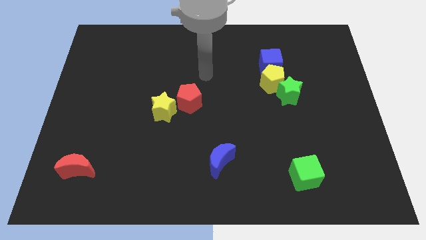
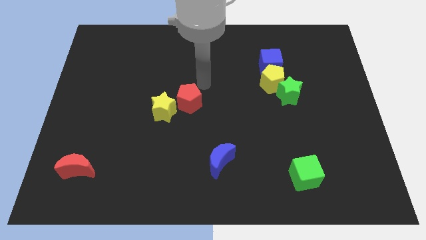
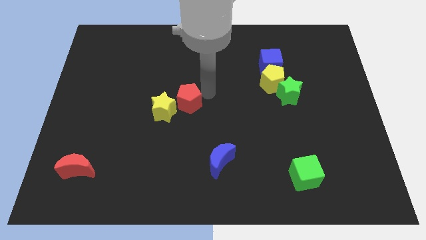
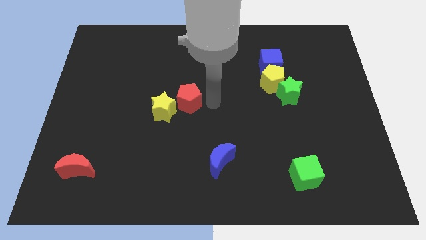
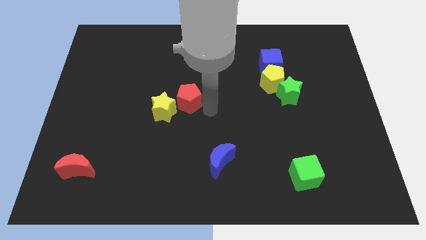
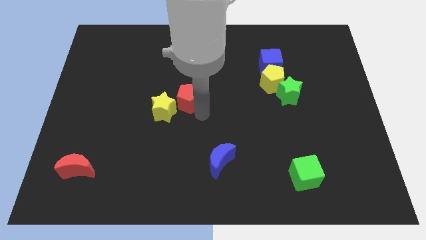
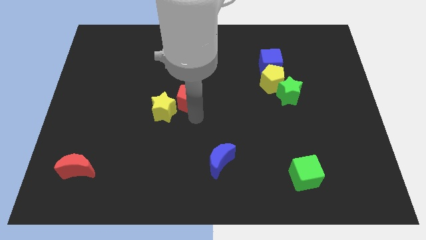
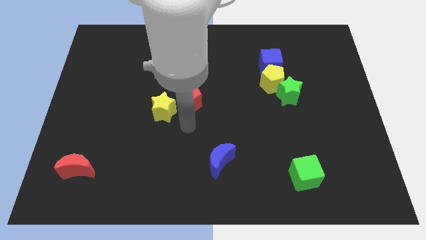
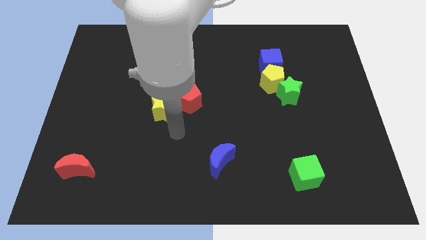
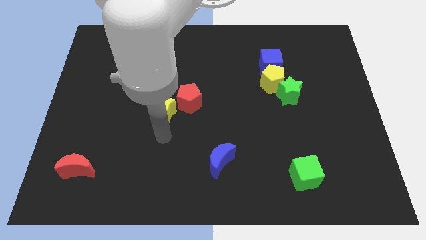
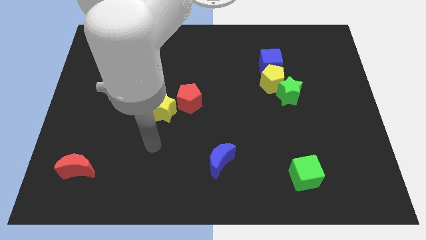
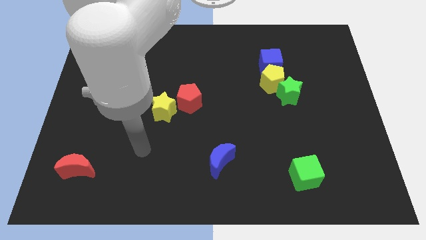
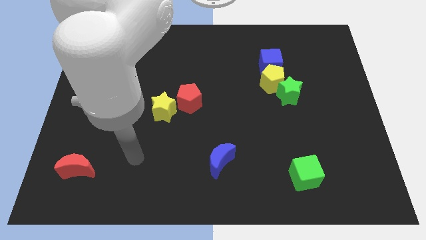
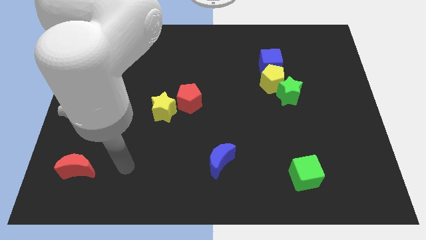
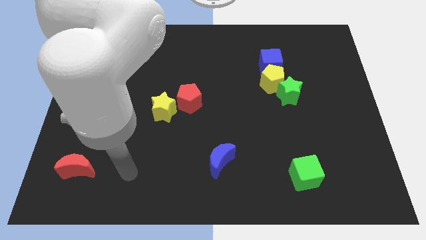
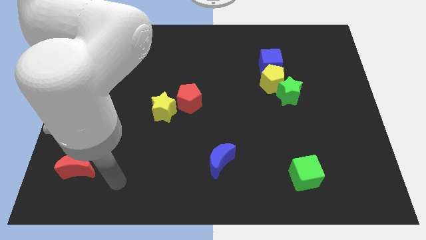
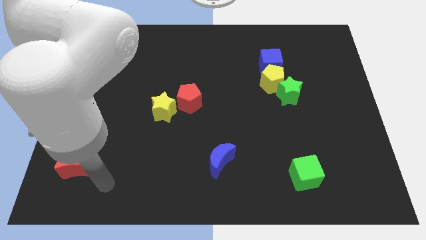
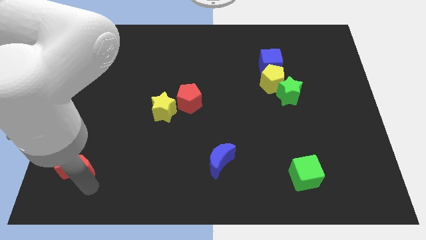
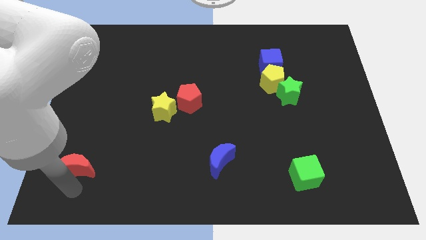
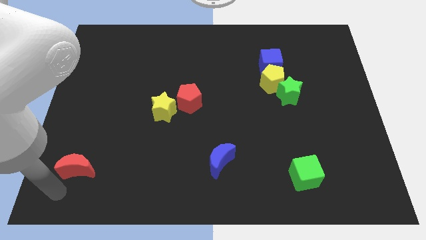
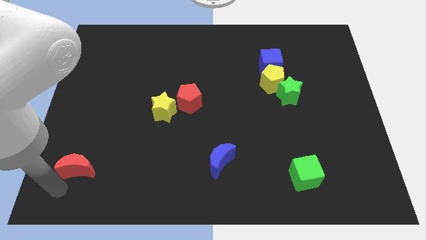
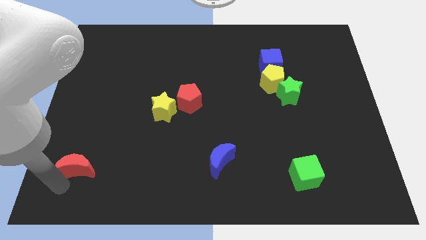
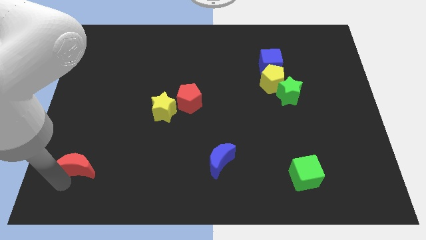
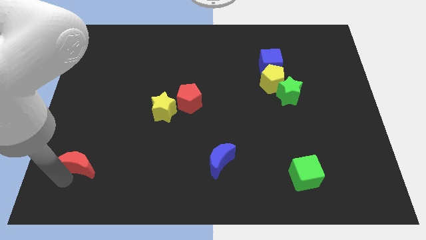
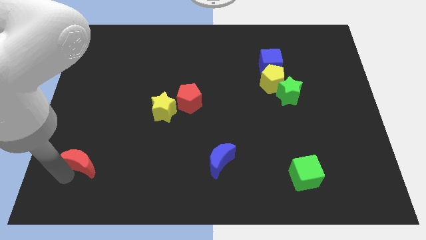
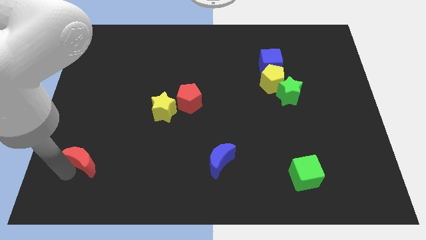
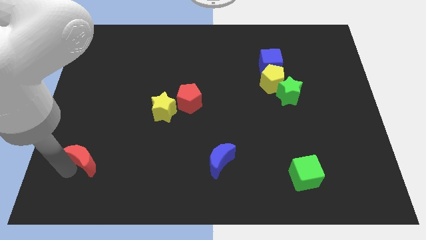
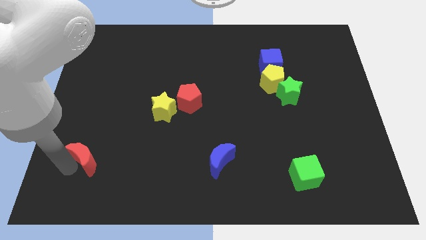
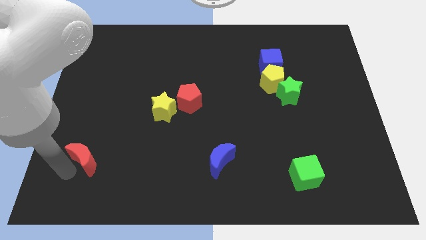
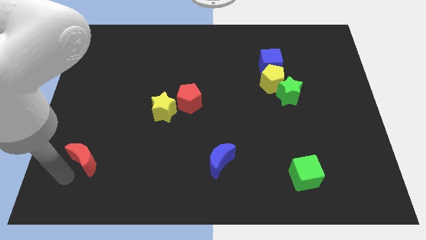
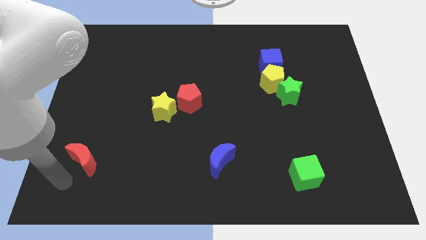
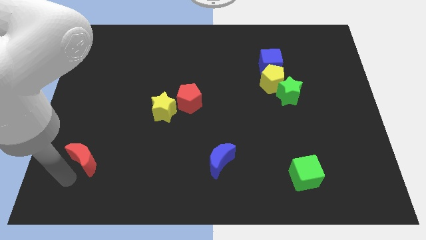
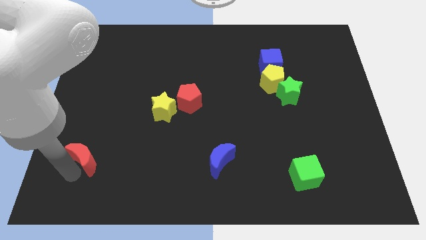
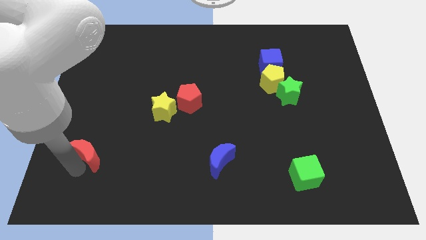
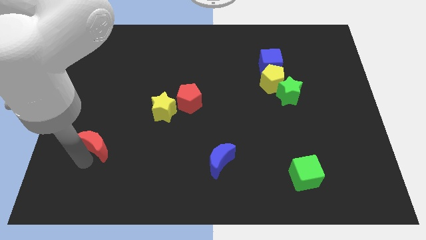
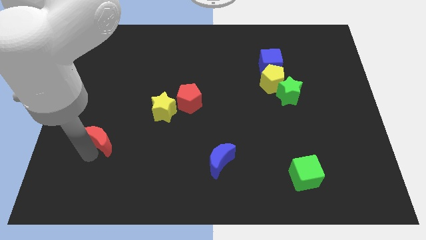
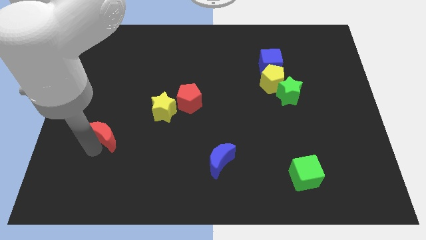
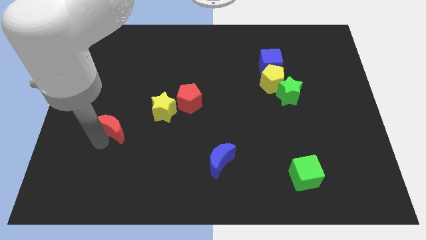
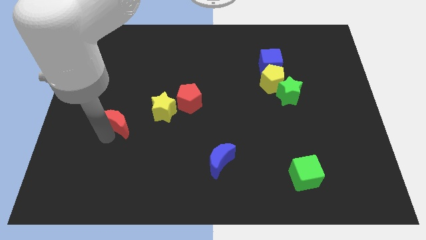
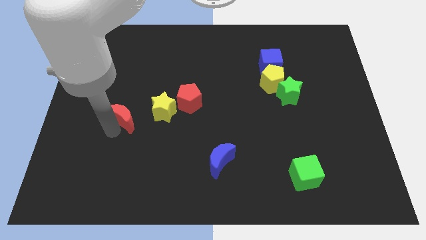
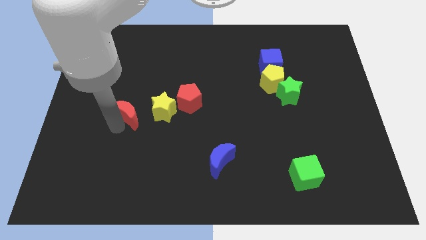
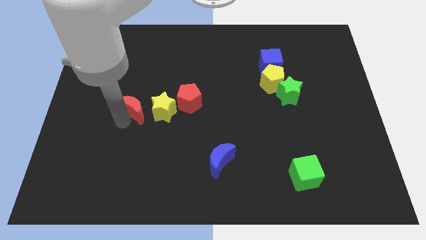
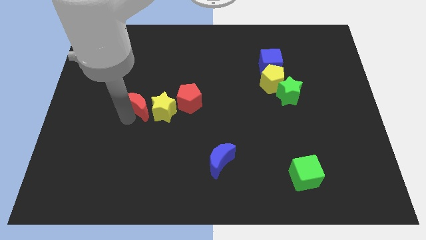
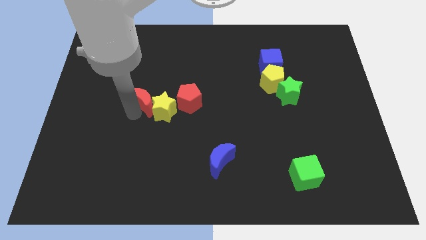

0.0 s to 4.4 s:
slide the red moon upwards and right diagonally

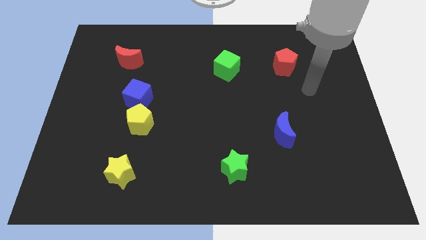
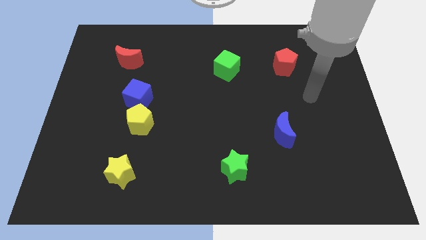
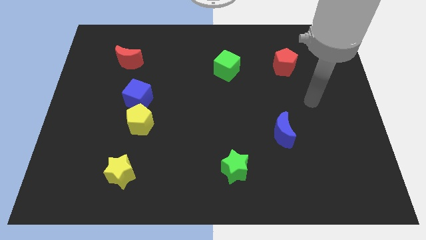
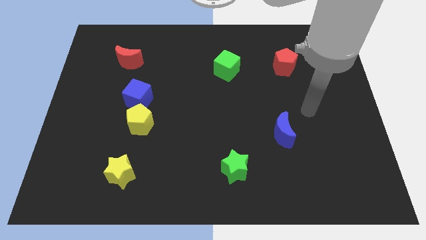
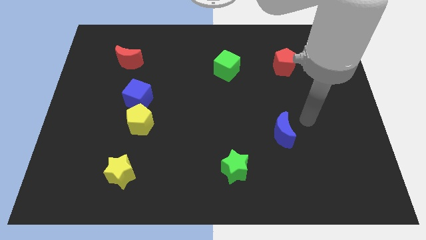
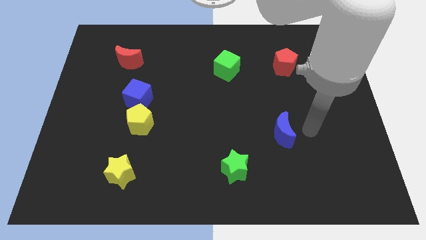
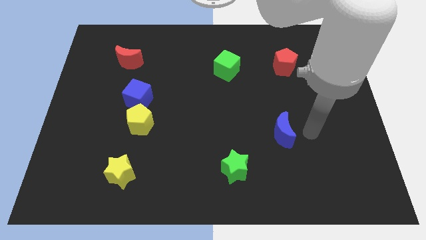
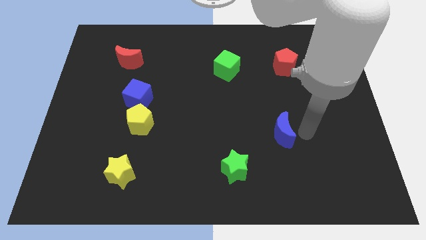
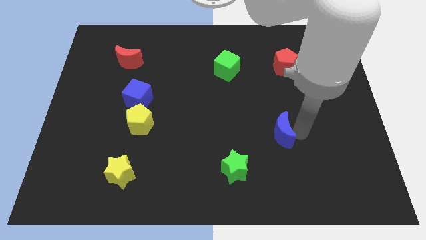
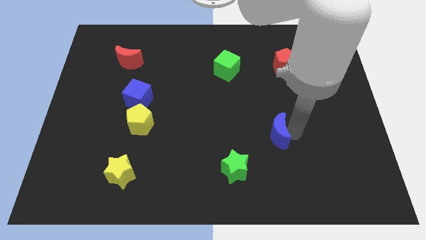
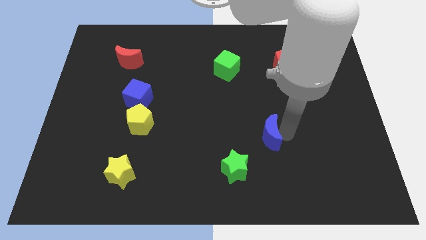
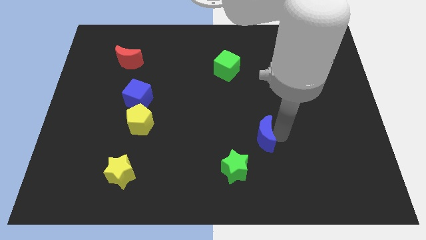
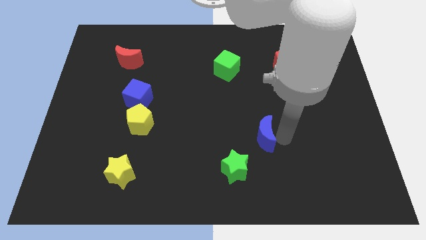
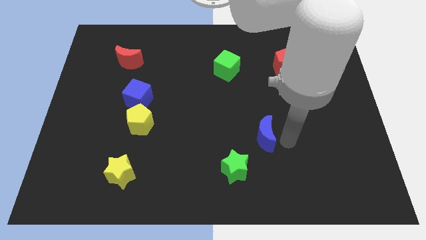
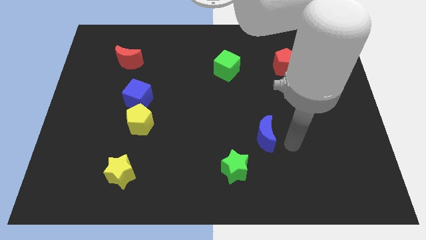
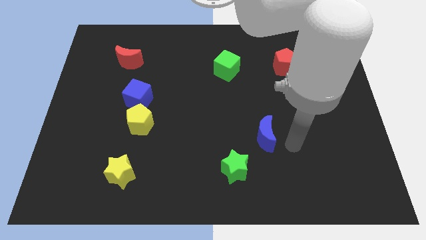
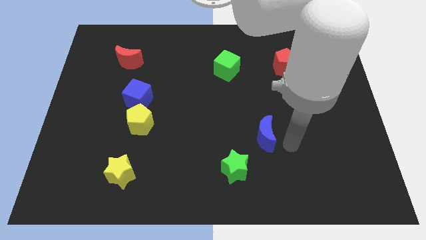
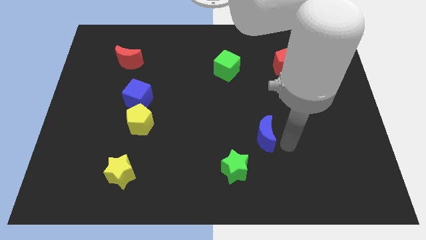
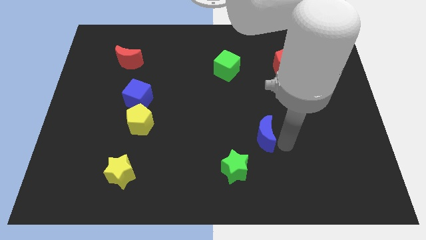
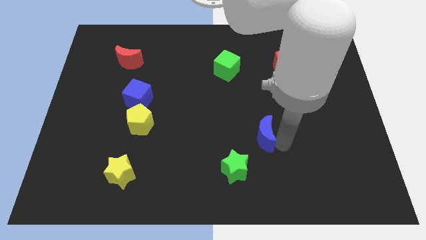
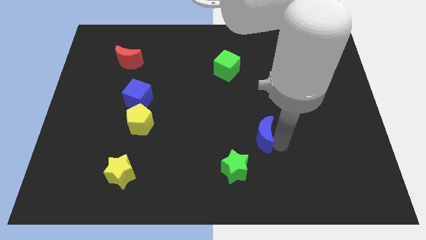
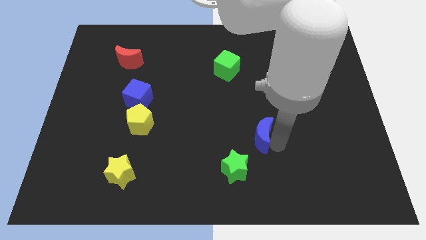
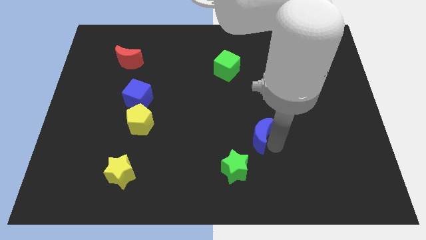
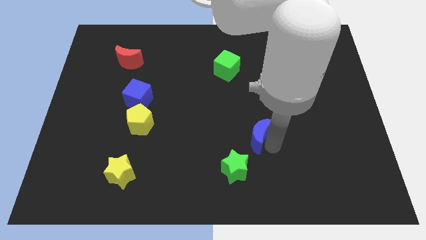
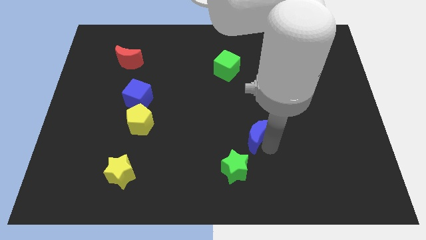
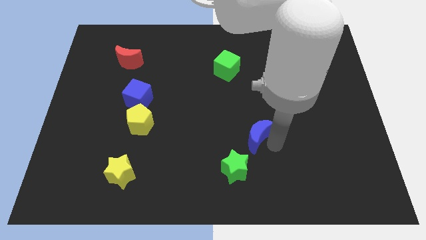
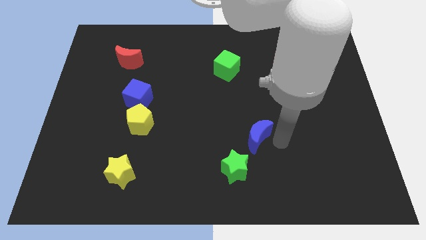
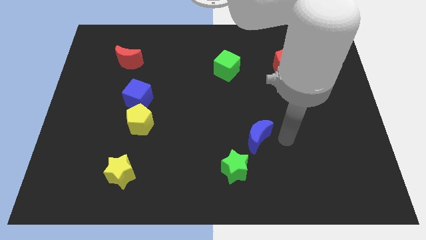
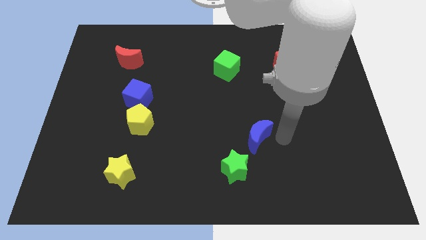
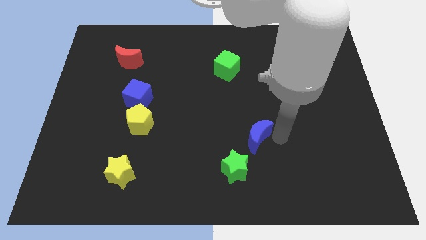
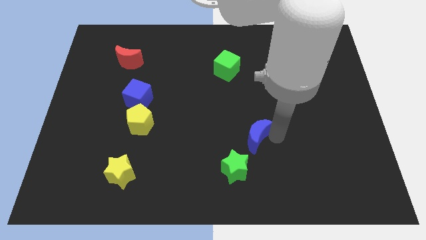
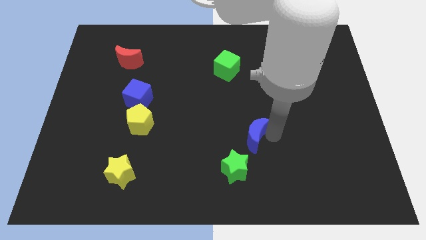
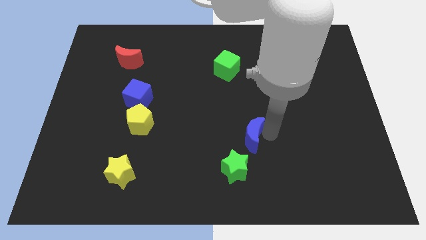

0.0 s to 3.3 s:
slide the blue moon a little bit to the left

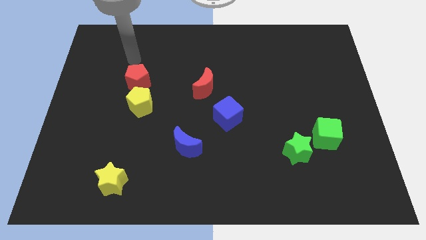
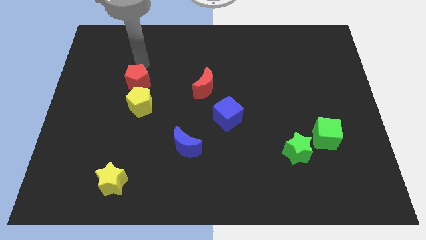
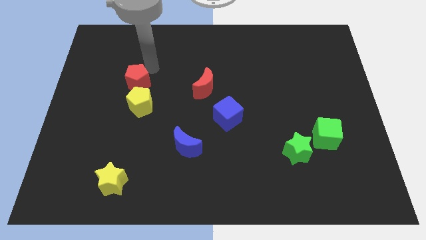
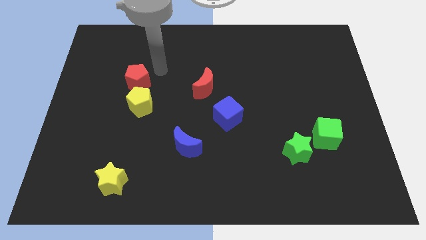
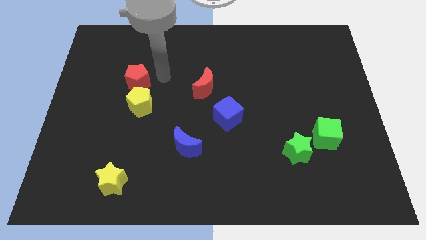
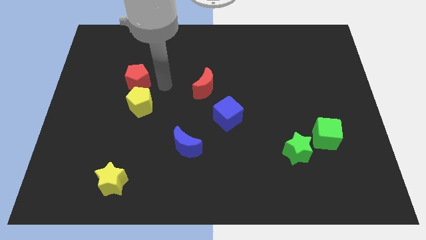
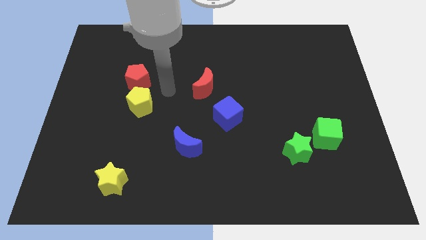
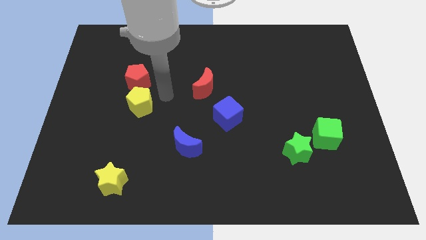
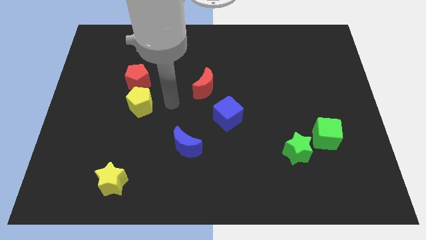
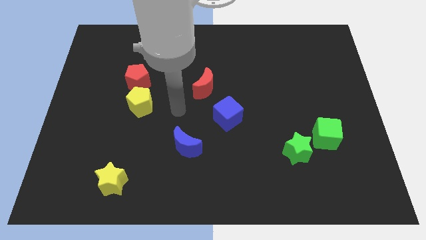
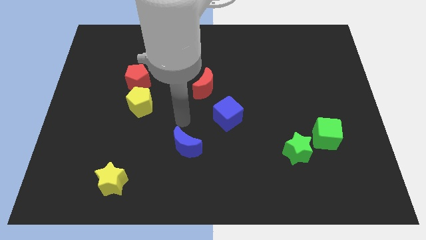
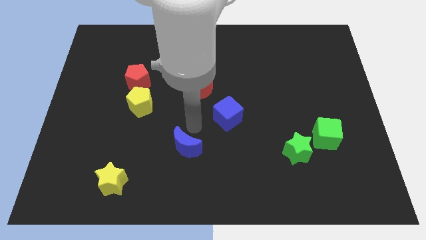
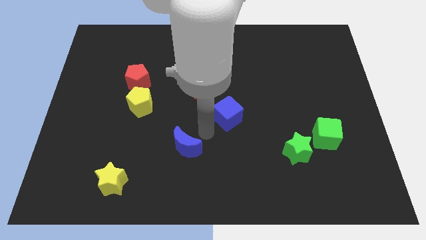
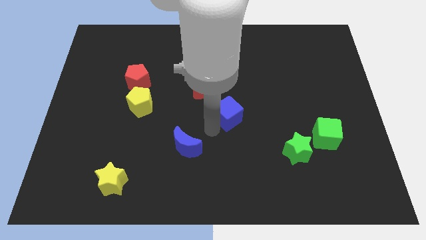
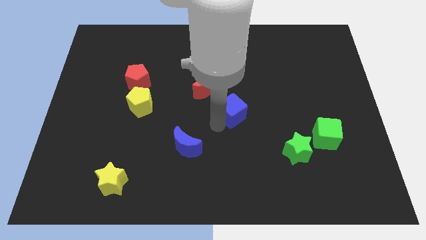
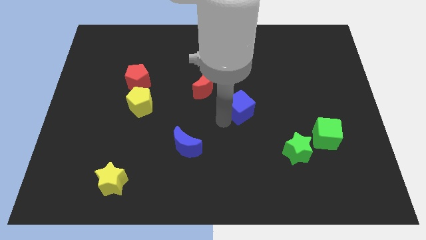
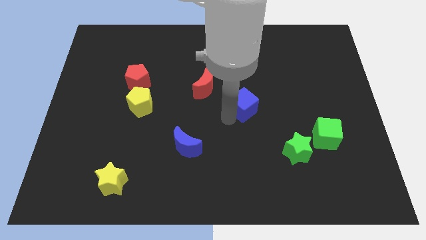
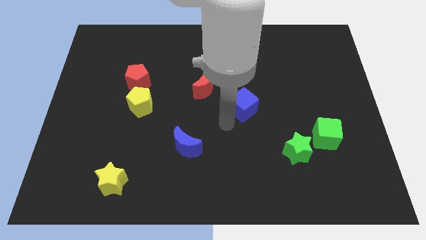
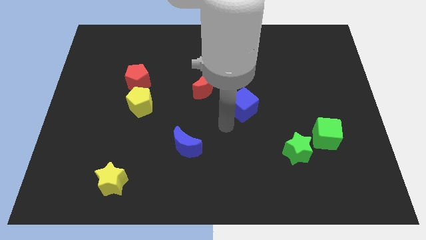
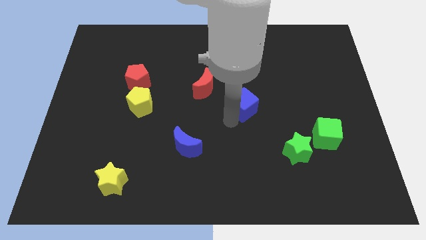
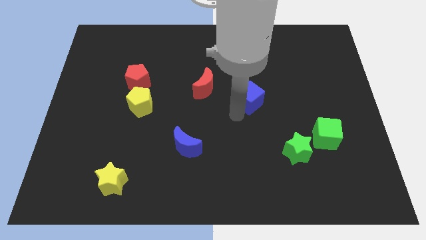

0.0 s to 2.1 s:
push the blue cube diagonally upwards and to the right a little bit
